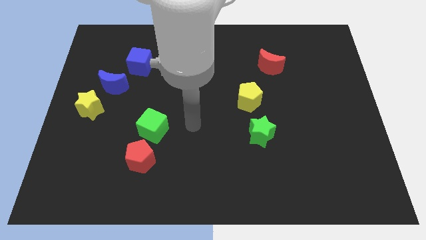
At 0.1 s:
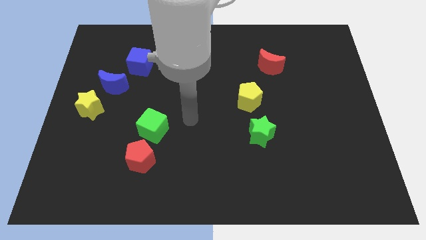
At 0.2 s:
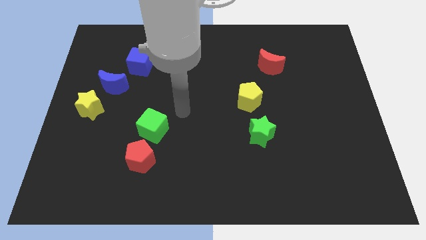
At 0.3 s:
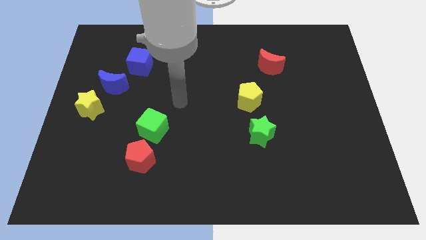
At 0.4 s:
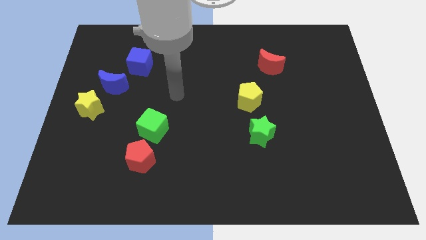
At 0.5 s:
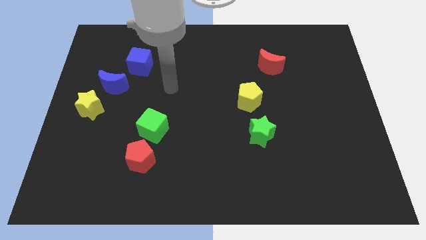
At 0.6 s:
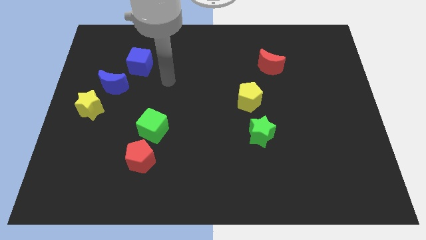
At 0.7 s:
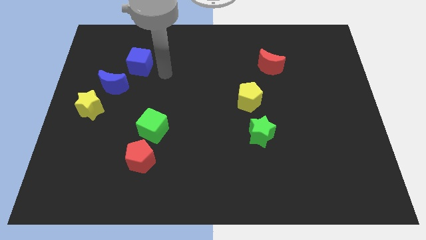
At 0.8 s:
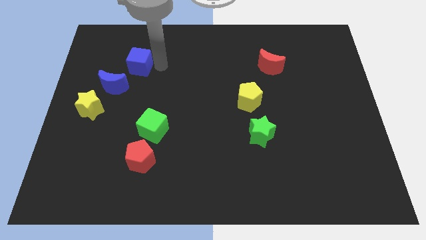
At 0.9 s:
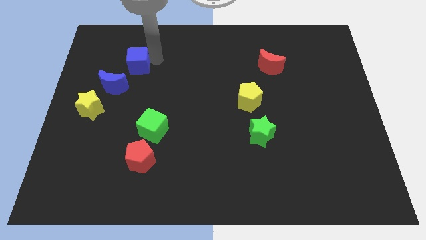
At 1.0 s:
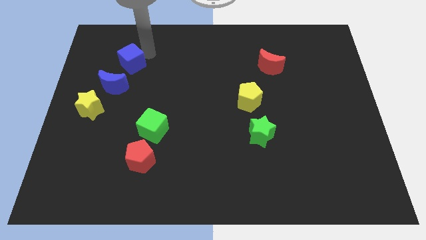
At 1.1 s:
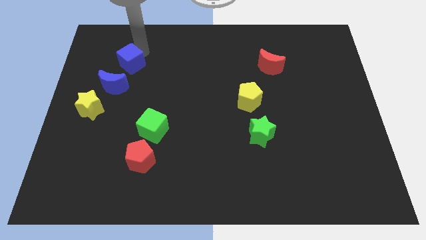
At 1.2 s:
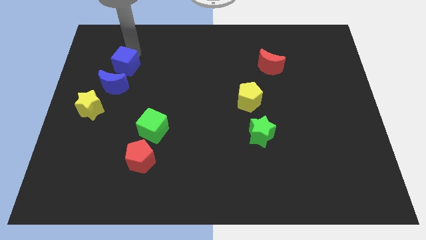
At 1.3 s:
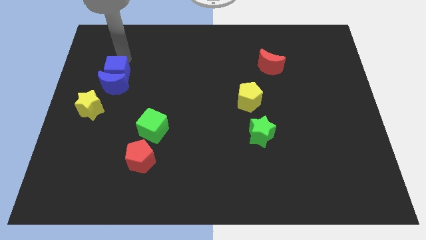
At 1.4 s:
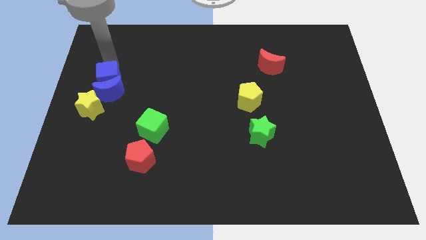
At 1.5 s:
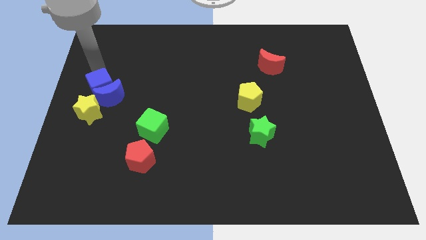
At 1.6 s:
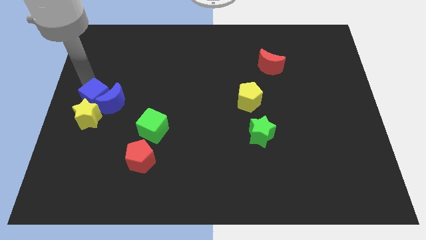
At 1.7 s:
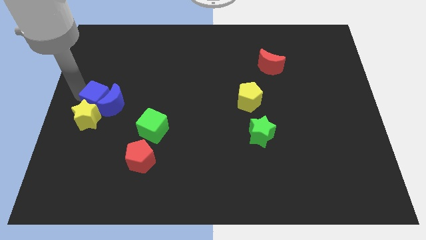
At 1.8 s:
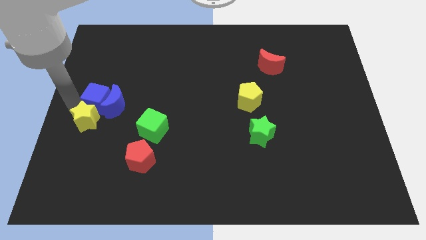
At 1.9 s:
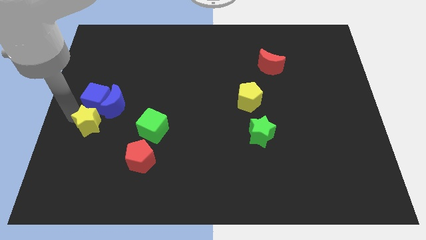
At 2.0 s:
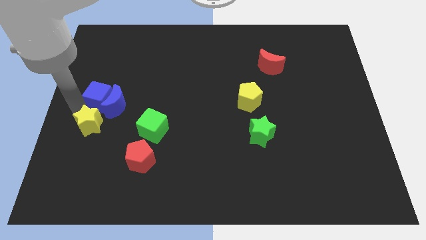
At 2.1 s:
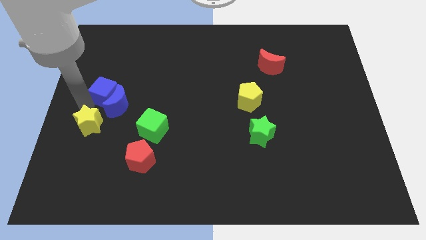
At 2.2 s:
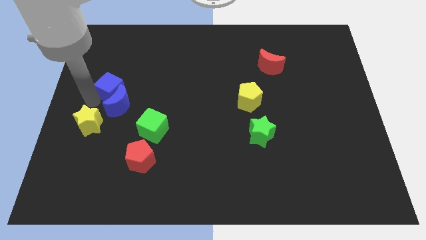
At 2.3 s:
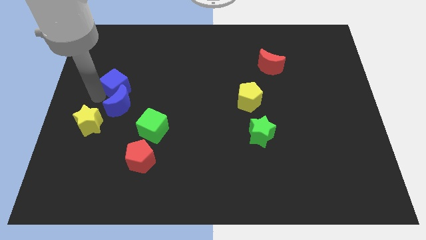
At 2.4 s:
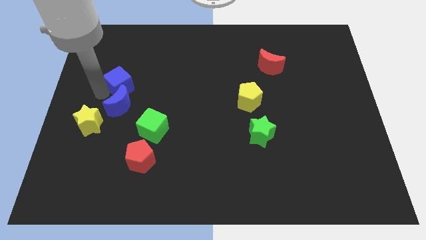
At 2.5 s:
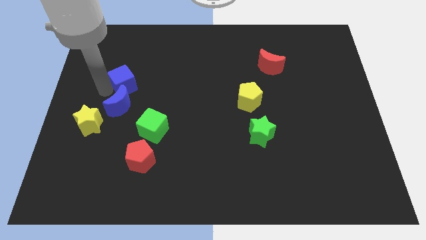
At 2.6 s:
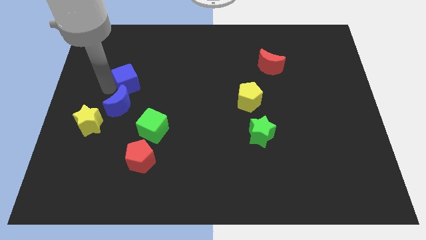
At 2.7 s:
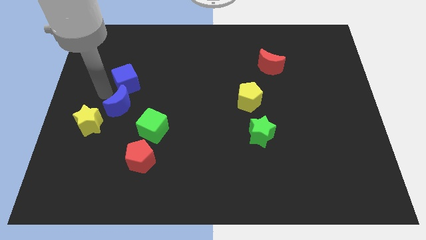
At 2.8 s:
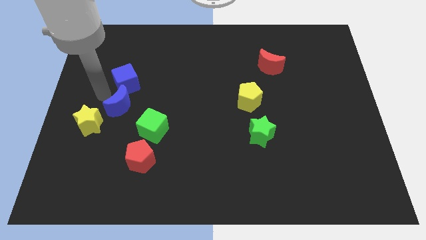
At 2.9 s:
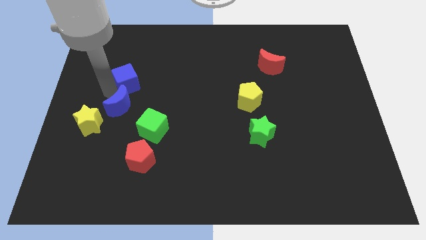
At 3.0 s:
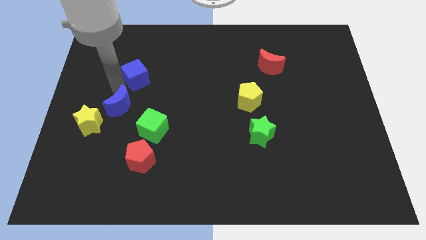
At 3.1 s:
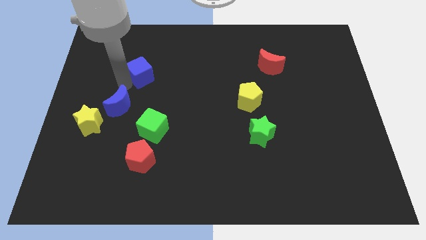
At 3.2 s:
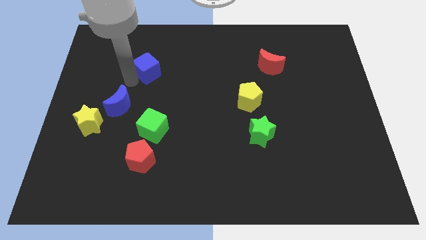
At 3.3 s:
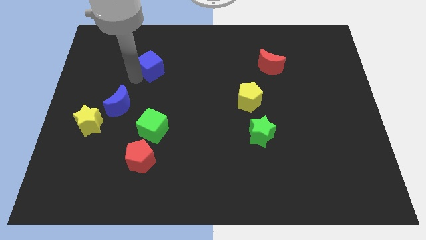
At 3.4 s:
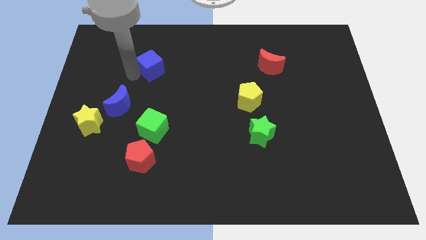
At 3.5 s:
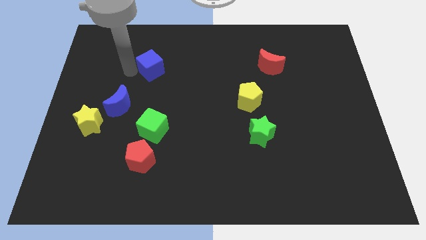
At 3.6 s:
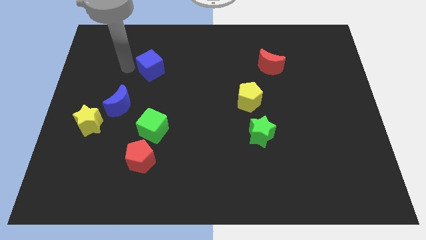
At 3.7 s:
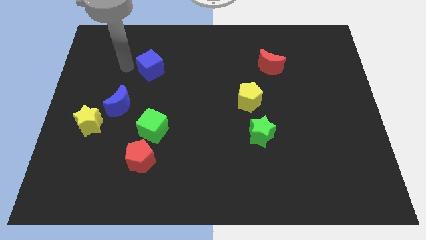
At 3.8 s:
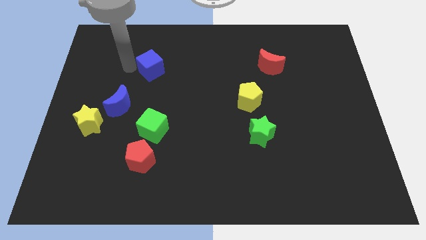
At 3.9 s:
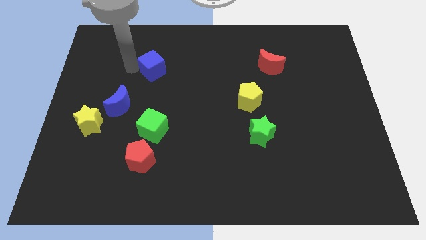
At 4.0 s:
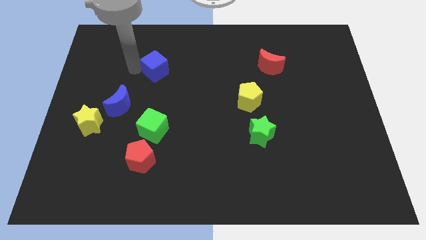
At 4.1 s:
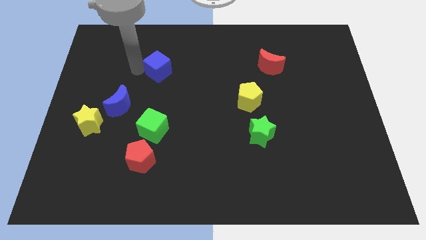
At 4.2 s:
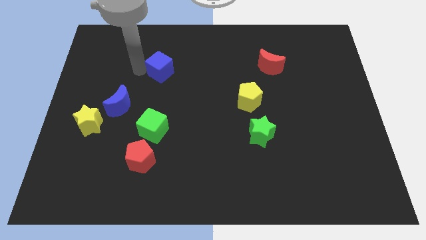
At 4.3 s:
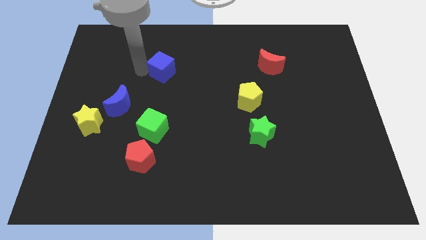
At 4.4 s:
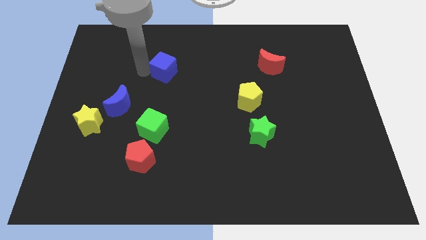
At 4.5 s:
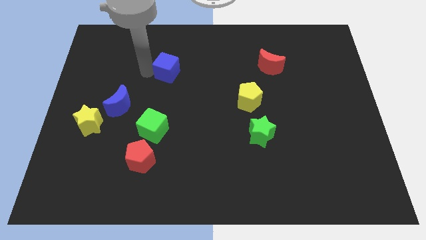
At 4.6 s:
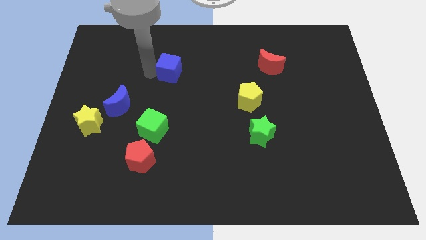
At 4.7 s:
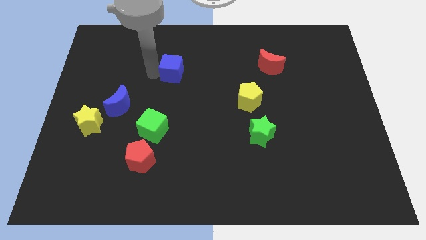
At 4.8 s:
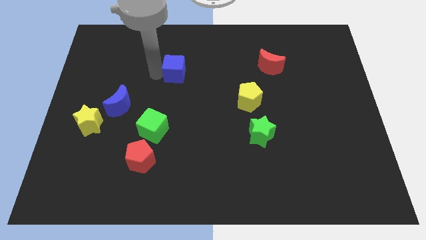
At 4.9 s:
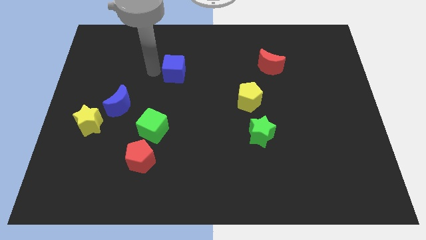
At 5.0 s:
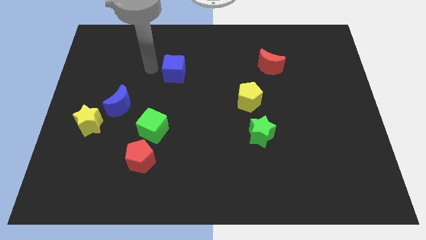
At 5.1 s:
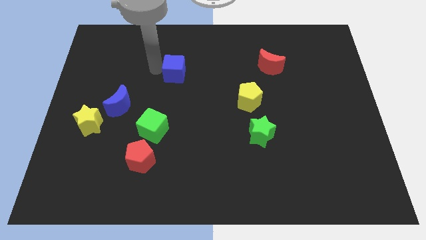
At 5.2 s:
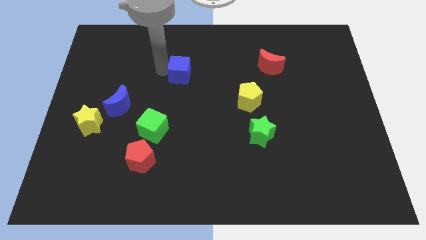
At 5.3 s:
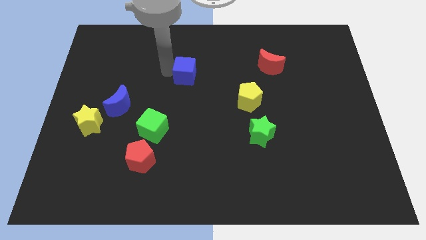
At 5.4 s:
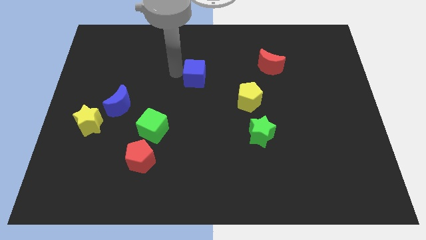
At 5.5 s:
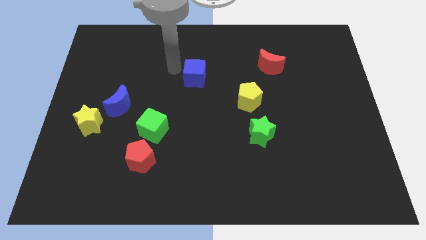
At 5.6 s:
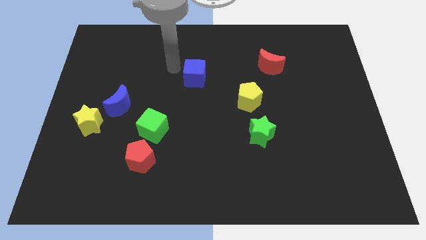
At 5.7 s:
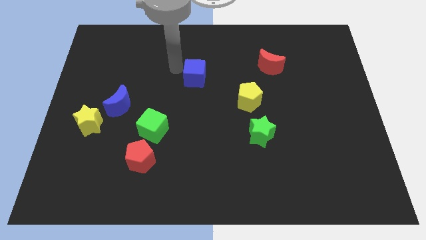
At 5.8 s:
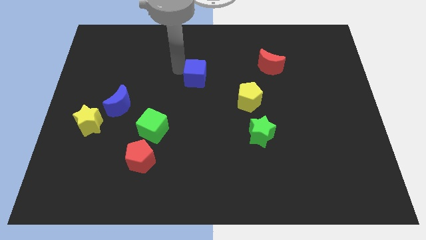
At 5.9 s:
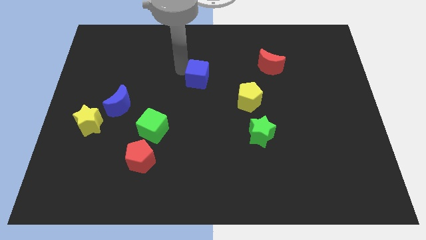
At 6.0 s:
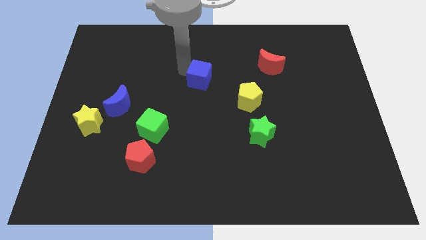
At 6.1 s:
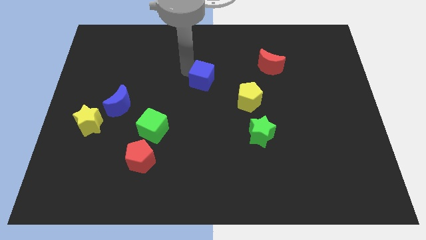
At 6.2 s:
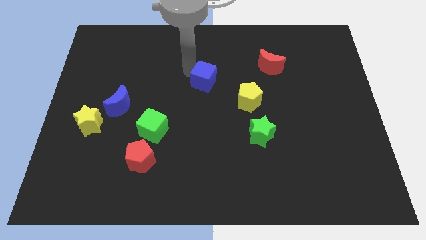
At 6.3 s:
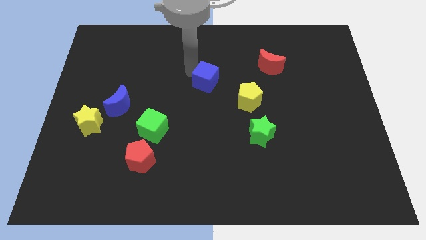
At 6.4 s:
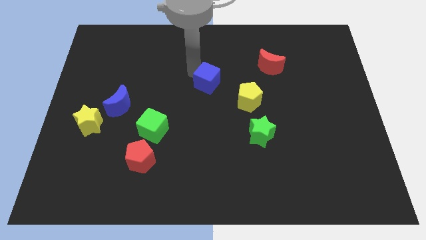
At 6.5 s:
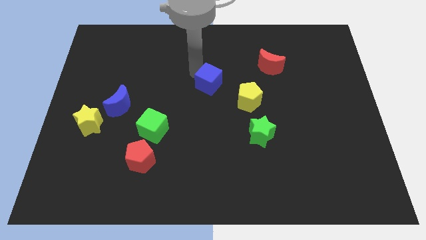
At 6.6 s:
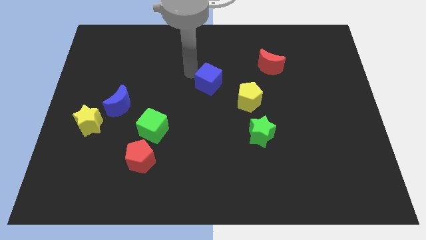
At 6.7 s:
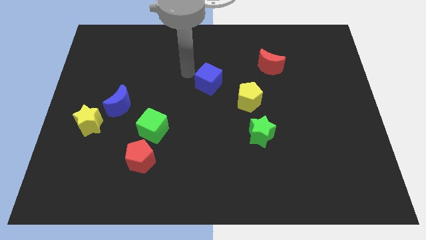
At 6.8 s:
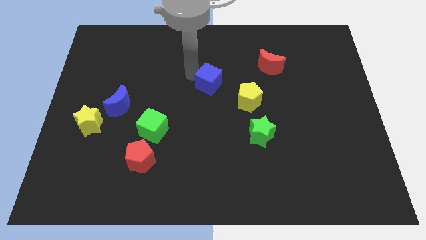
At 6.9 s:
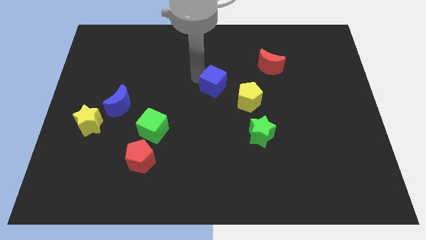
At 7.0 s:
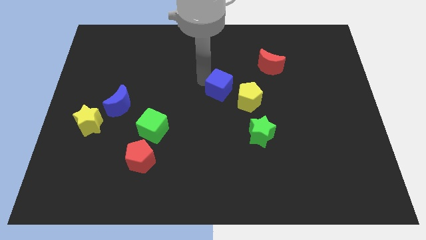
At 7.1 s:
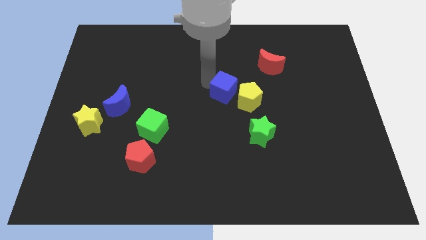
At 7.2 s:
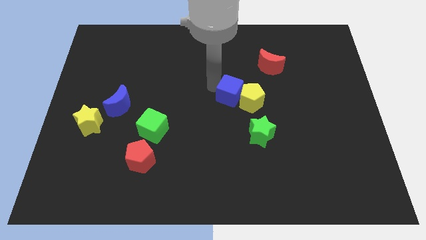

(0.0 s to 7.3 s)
slide the blue cube to the yellow pentagon

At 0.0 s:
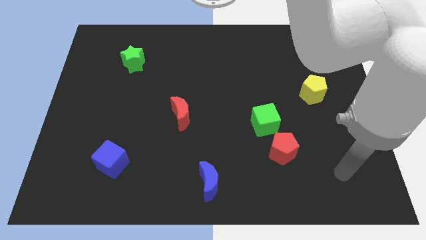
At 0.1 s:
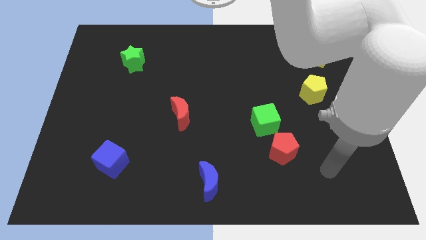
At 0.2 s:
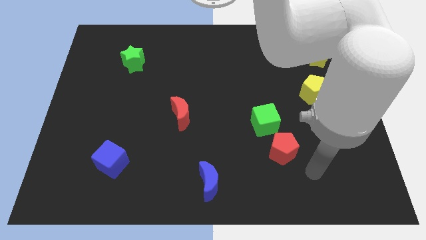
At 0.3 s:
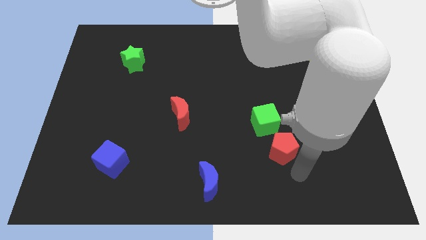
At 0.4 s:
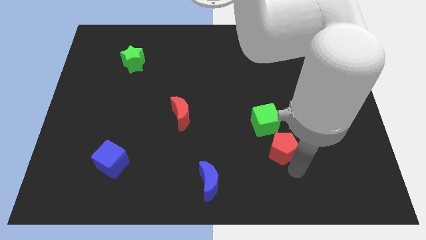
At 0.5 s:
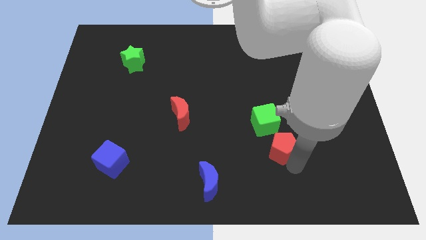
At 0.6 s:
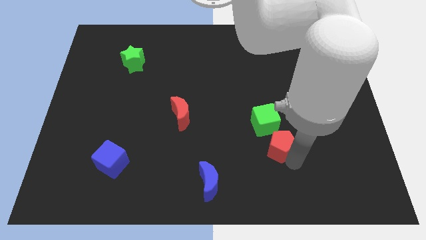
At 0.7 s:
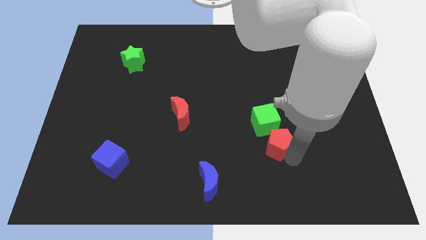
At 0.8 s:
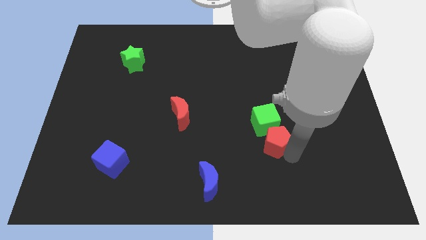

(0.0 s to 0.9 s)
put the red pentagon to the green cube
